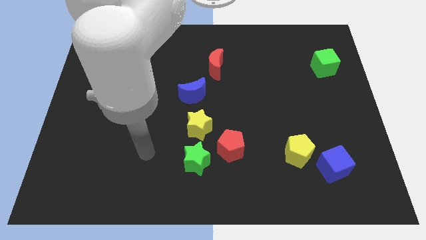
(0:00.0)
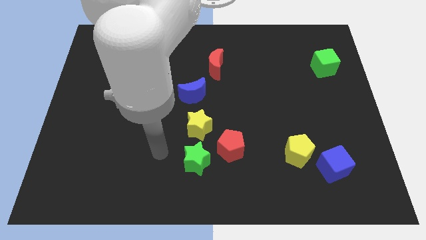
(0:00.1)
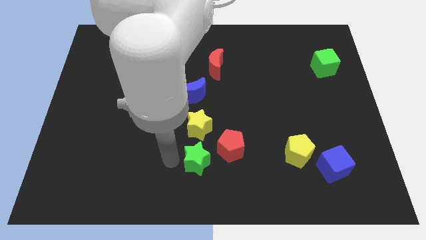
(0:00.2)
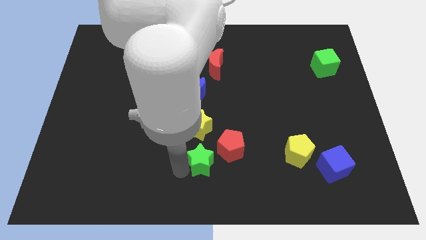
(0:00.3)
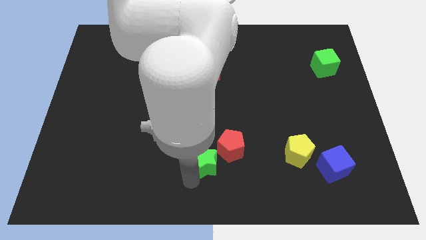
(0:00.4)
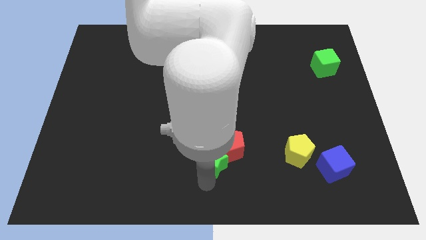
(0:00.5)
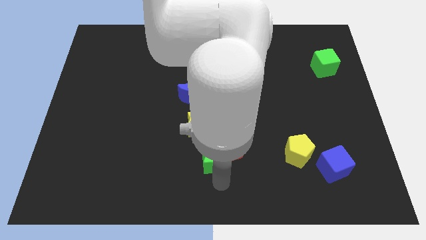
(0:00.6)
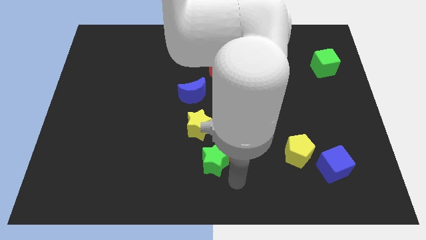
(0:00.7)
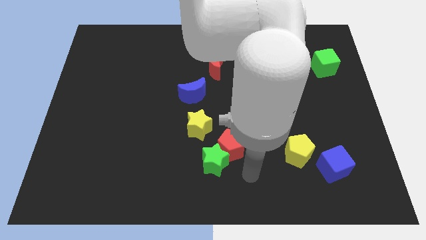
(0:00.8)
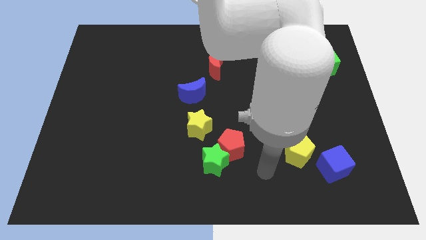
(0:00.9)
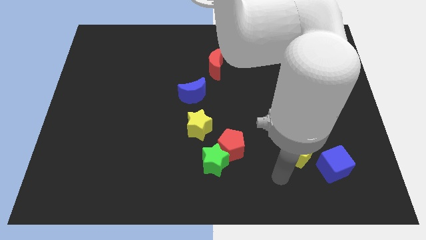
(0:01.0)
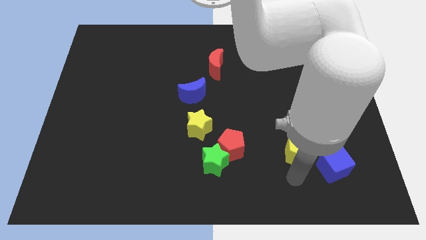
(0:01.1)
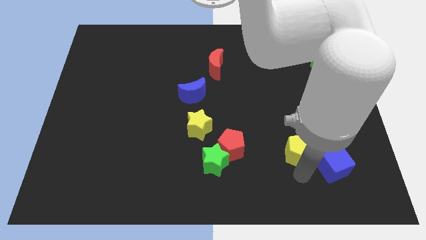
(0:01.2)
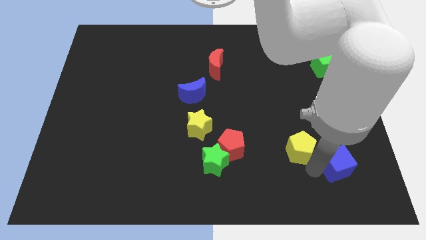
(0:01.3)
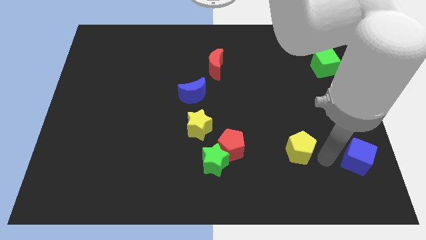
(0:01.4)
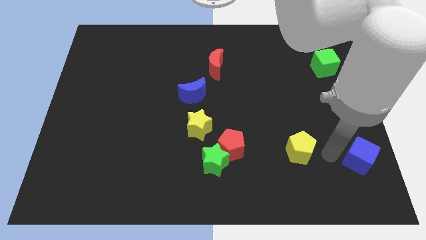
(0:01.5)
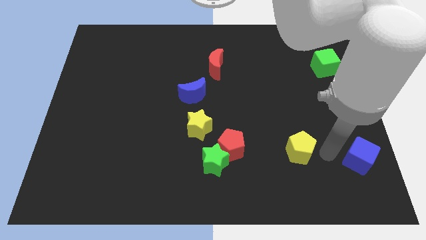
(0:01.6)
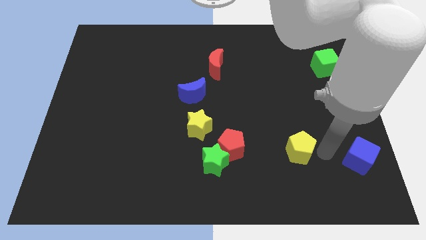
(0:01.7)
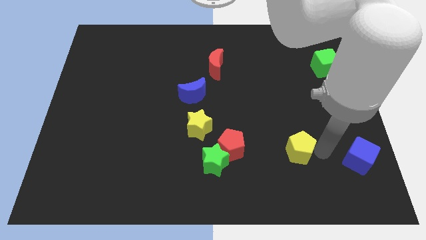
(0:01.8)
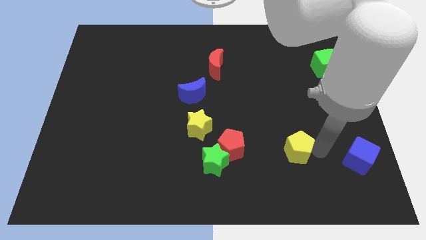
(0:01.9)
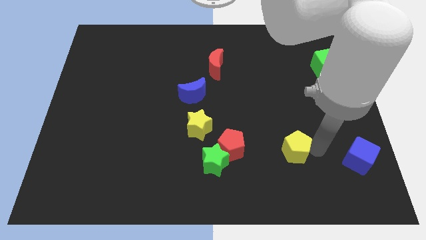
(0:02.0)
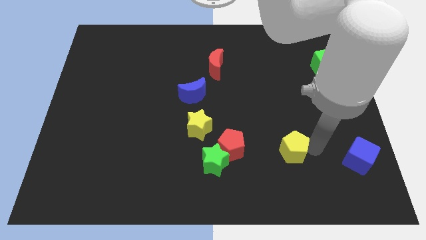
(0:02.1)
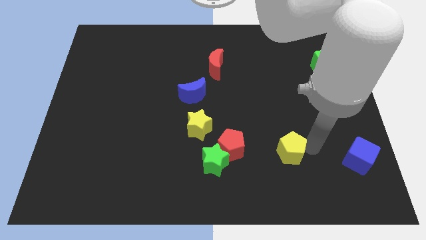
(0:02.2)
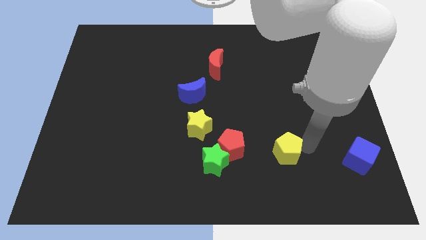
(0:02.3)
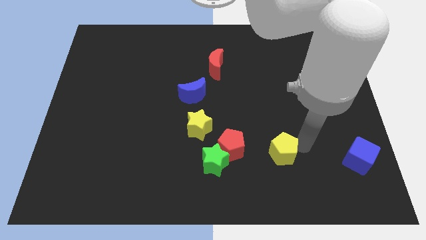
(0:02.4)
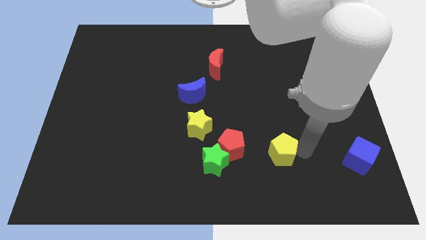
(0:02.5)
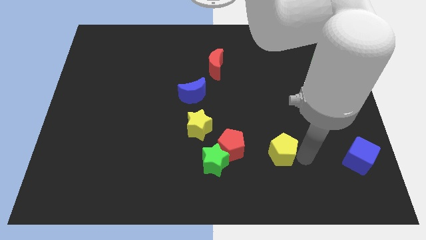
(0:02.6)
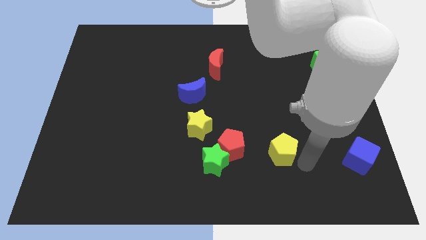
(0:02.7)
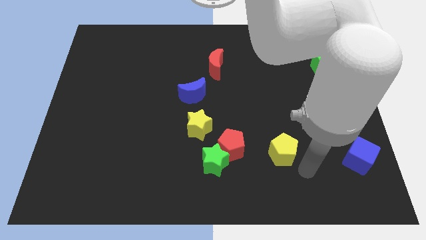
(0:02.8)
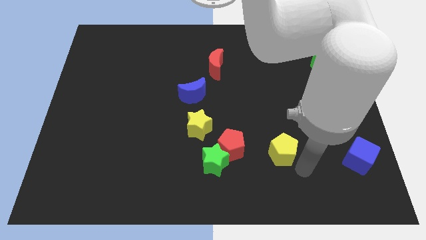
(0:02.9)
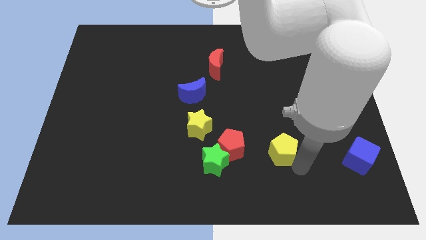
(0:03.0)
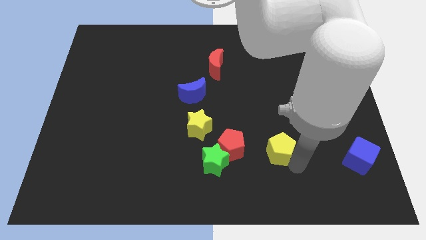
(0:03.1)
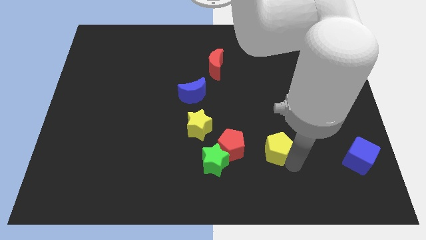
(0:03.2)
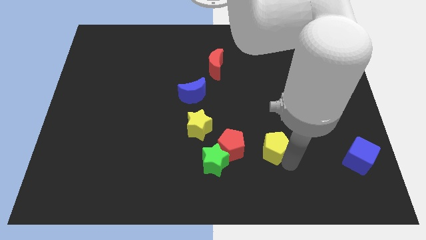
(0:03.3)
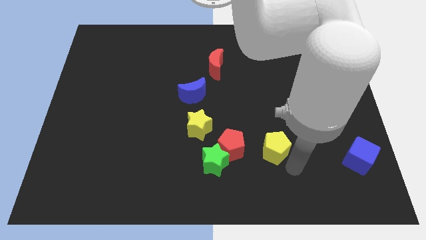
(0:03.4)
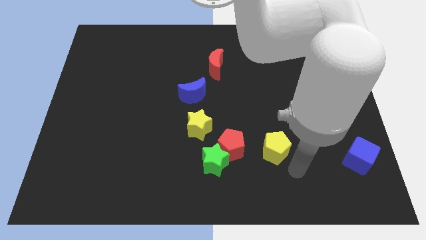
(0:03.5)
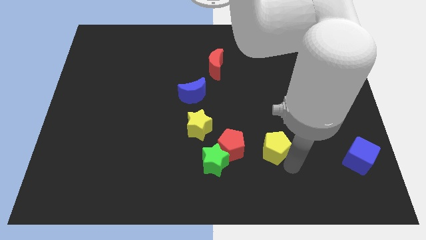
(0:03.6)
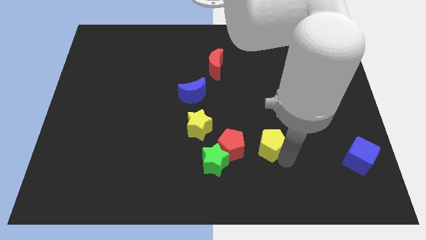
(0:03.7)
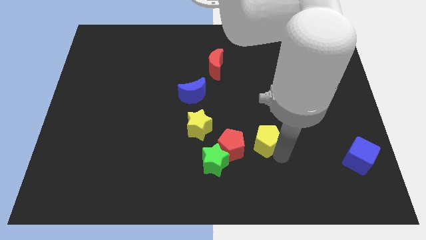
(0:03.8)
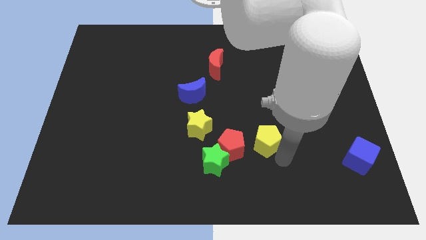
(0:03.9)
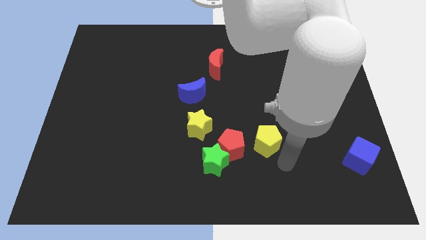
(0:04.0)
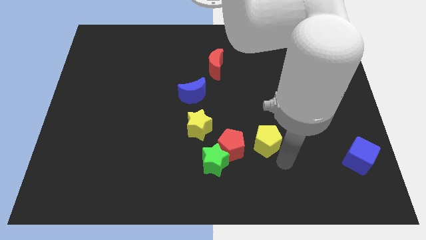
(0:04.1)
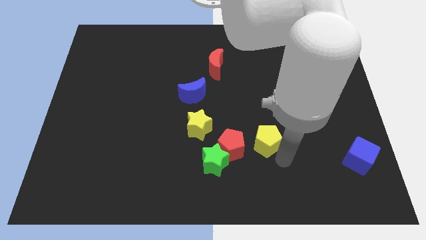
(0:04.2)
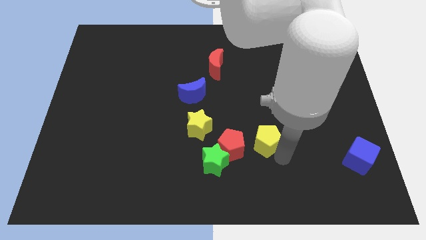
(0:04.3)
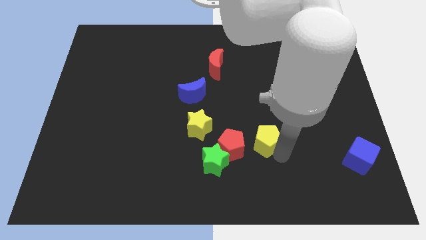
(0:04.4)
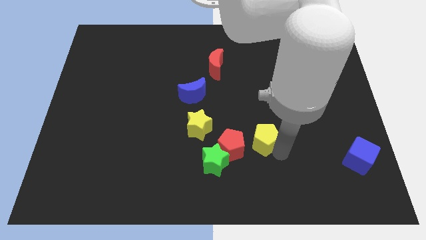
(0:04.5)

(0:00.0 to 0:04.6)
push the yellow pentagon diagonally up and left a little bit

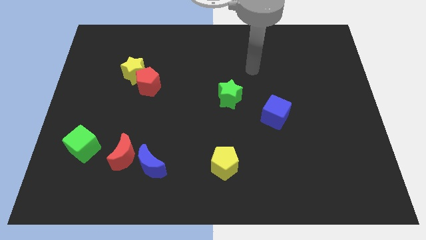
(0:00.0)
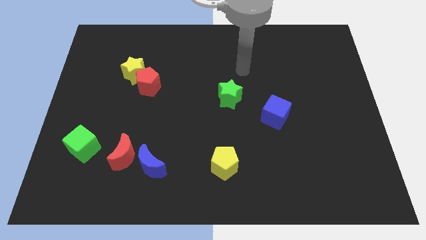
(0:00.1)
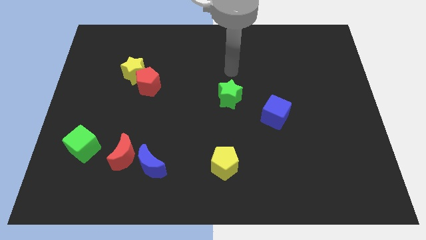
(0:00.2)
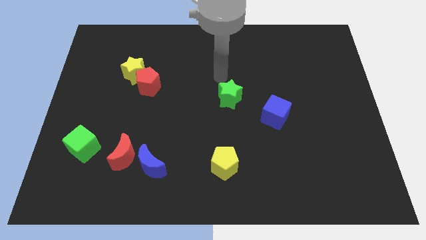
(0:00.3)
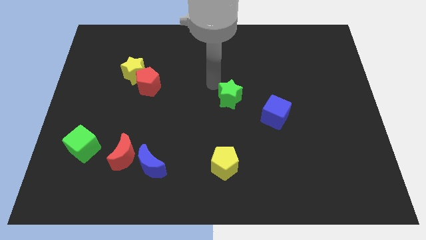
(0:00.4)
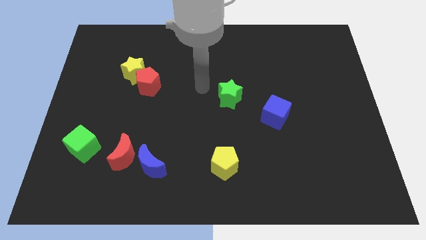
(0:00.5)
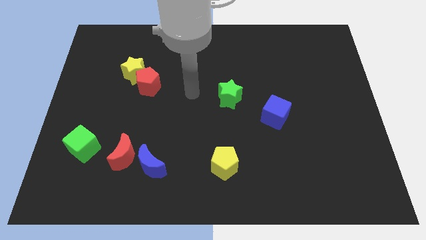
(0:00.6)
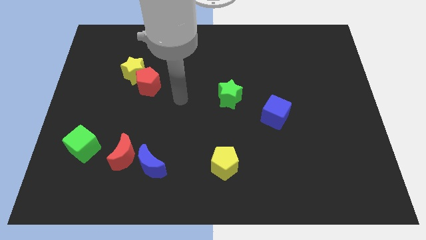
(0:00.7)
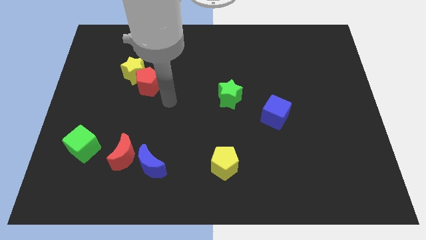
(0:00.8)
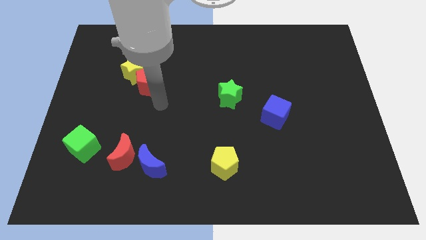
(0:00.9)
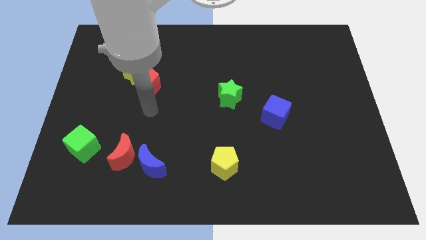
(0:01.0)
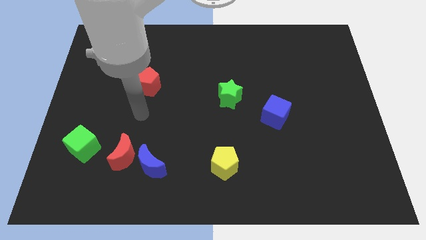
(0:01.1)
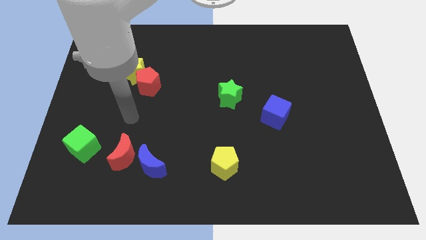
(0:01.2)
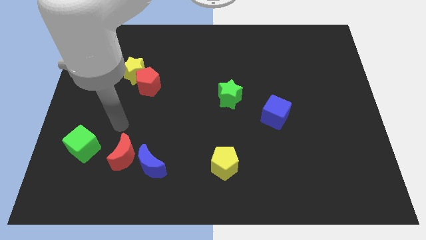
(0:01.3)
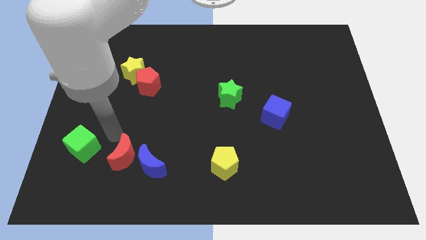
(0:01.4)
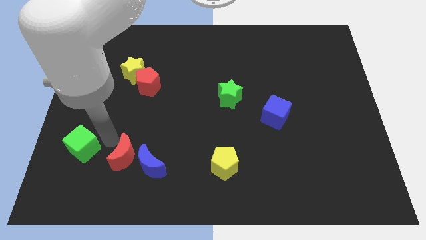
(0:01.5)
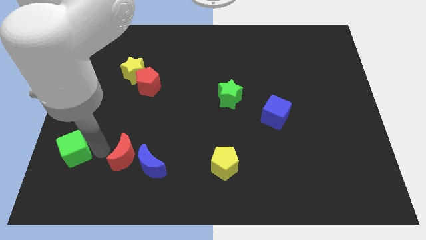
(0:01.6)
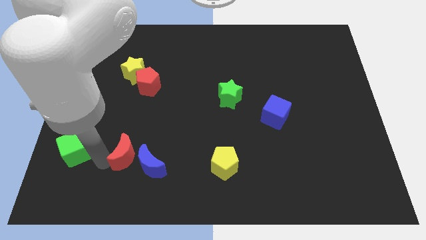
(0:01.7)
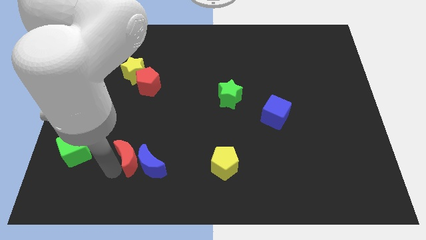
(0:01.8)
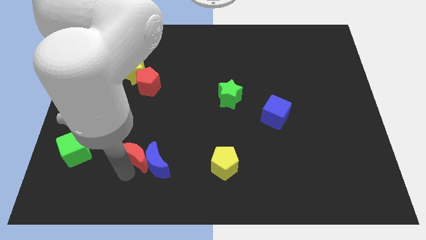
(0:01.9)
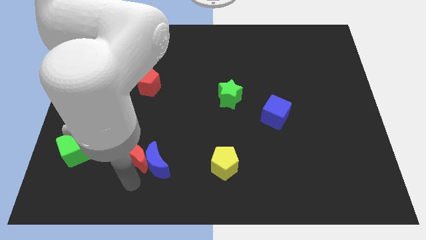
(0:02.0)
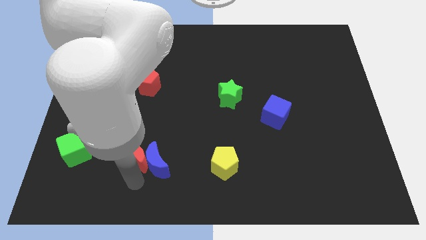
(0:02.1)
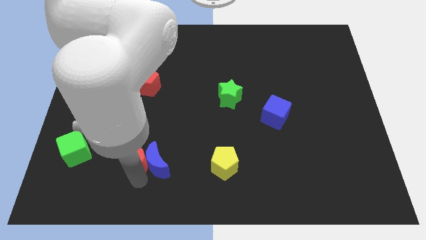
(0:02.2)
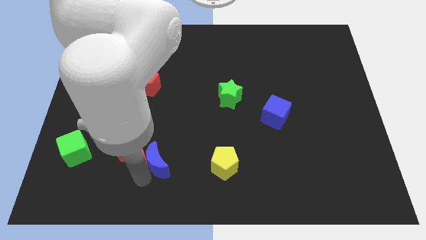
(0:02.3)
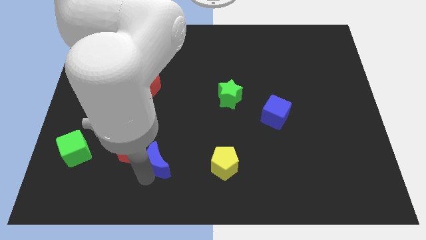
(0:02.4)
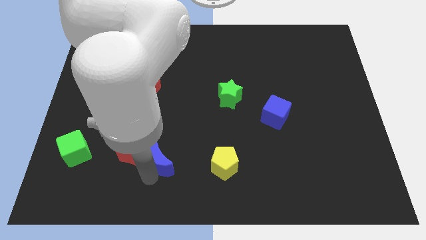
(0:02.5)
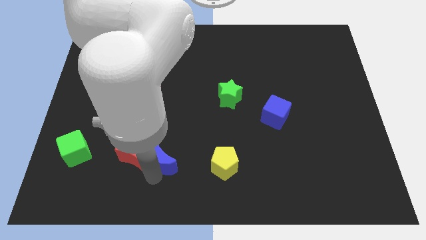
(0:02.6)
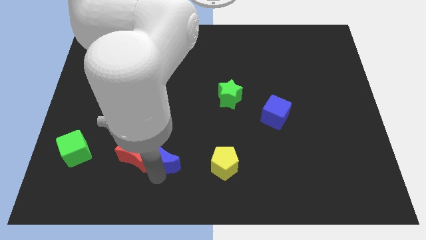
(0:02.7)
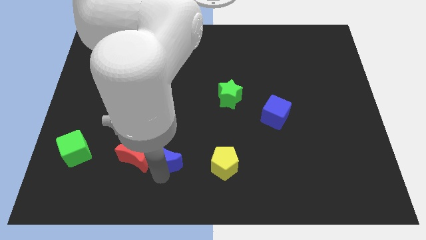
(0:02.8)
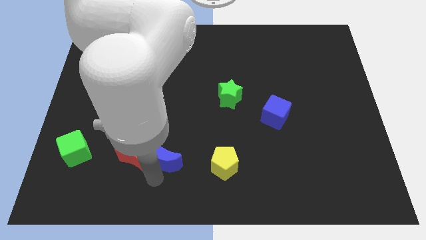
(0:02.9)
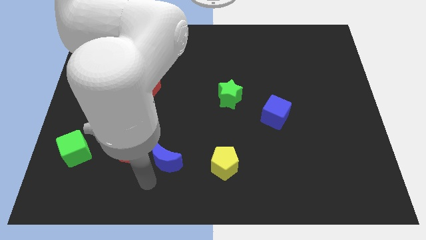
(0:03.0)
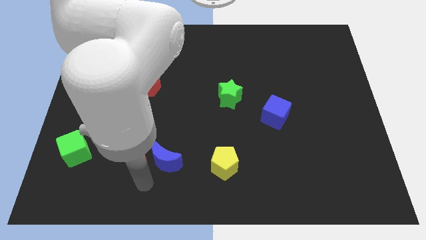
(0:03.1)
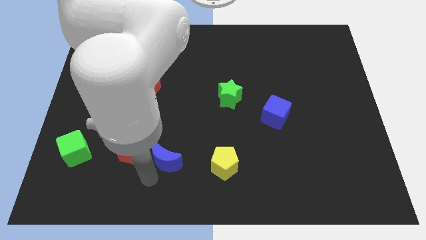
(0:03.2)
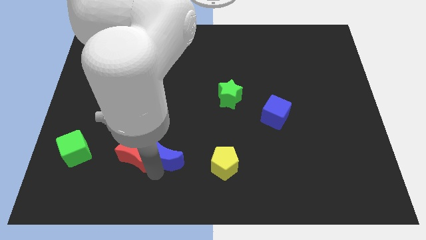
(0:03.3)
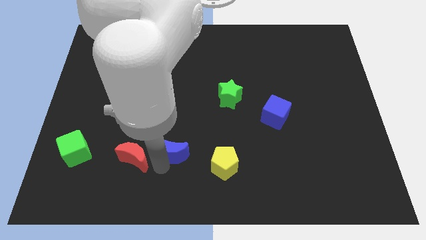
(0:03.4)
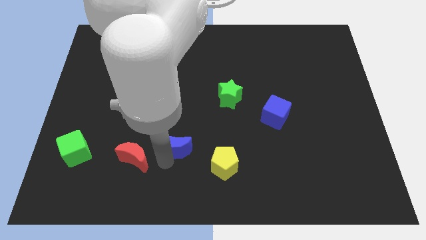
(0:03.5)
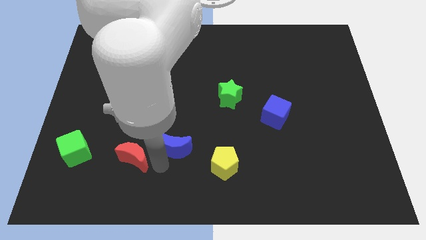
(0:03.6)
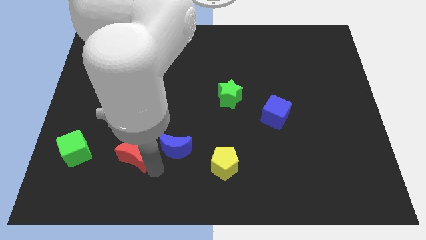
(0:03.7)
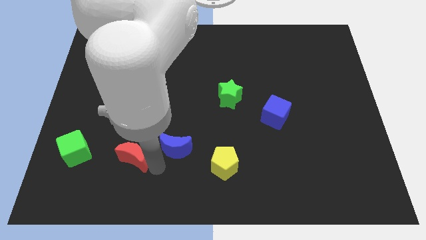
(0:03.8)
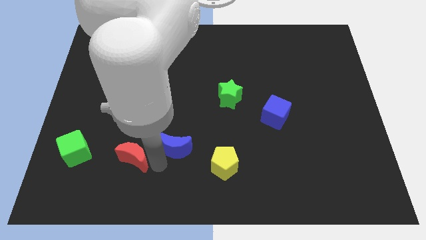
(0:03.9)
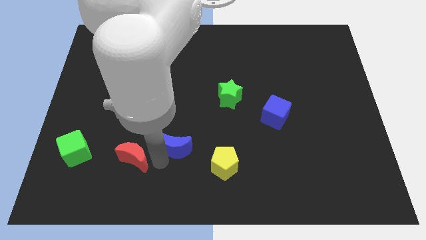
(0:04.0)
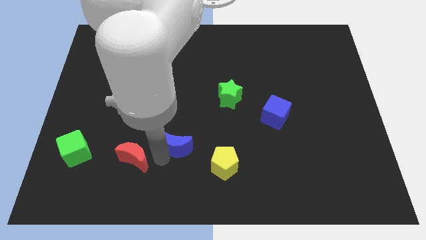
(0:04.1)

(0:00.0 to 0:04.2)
move the blue moon a bit diagonally up and right
